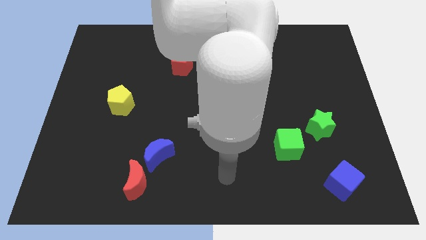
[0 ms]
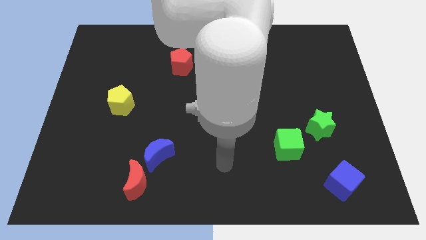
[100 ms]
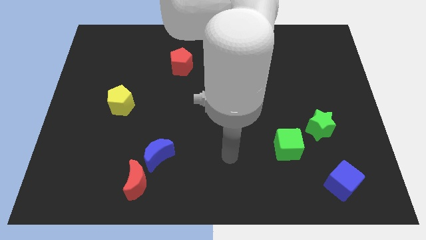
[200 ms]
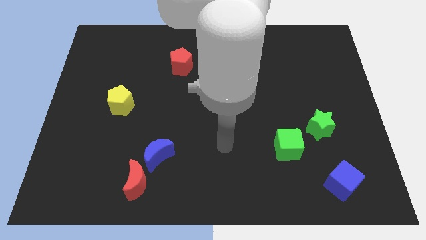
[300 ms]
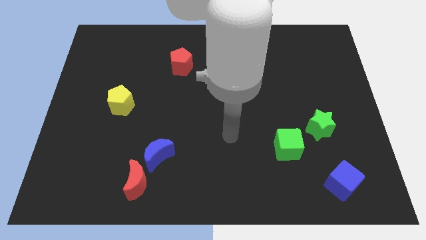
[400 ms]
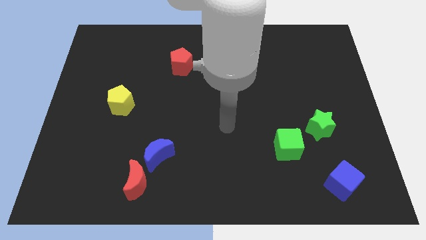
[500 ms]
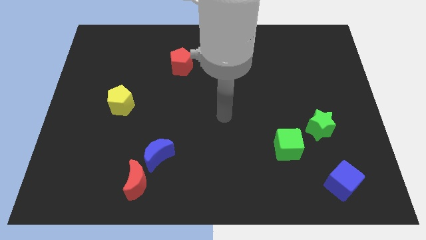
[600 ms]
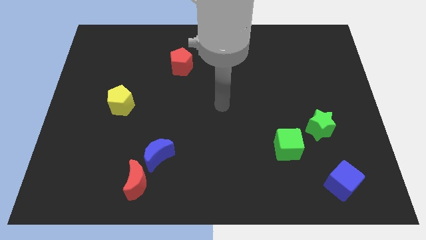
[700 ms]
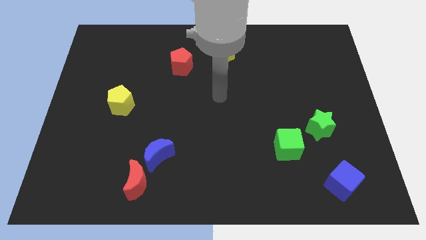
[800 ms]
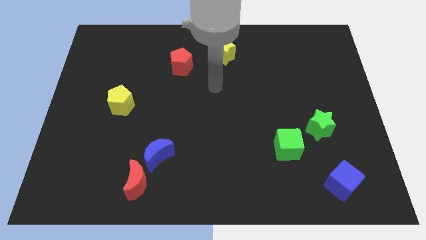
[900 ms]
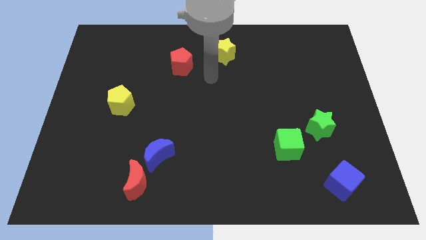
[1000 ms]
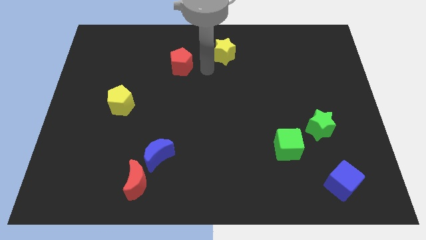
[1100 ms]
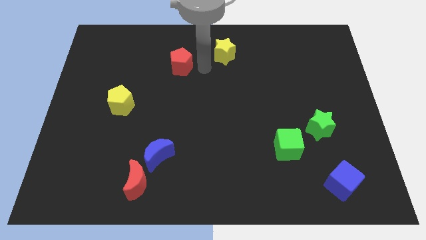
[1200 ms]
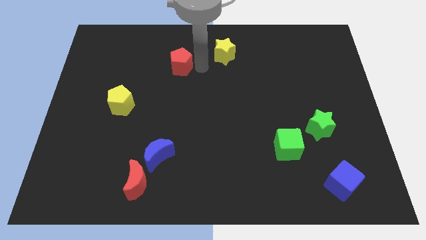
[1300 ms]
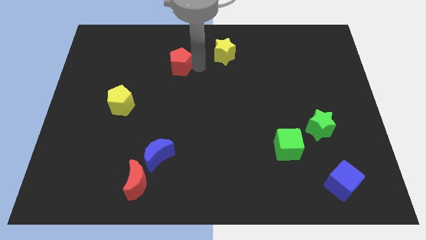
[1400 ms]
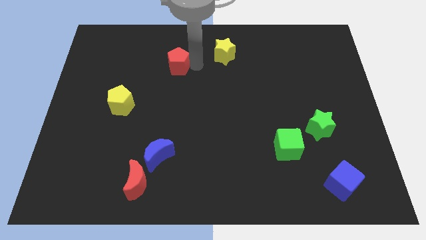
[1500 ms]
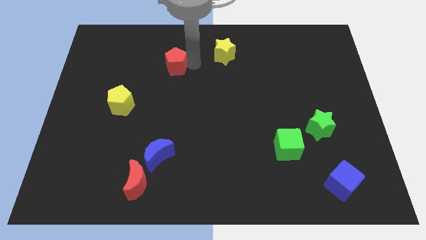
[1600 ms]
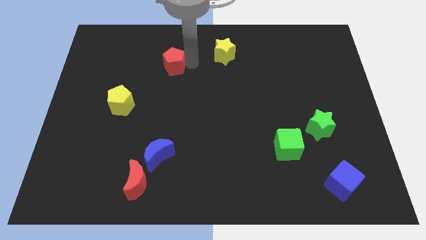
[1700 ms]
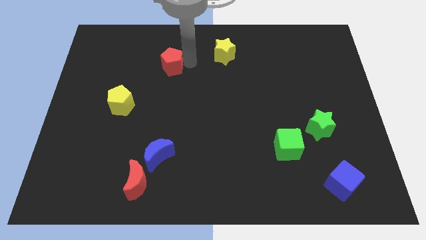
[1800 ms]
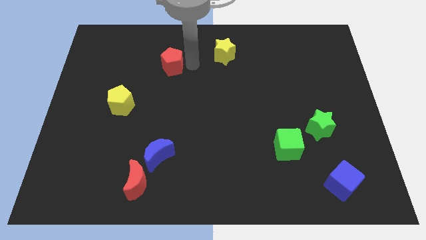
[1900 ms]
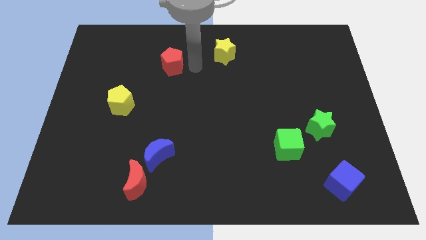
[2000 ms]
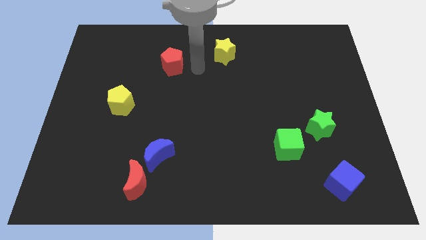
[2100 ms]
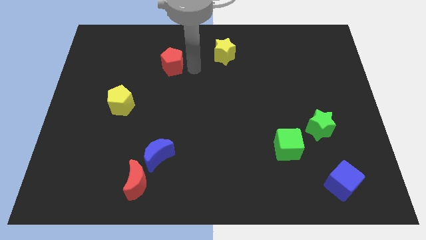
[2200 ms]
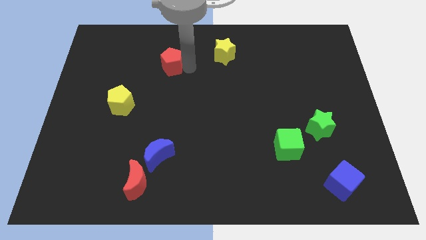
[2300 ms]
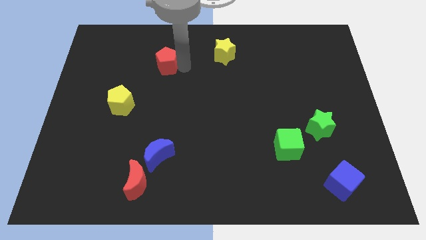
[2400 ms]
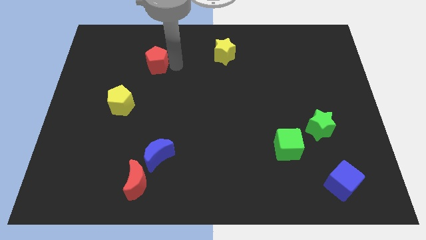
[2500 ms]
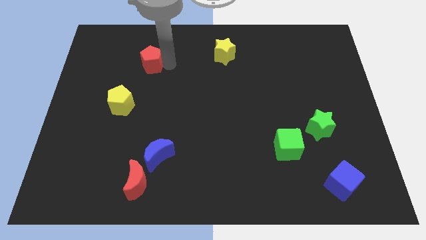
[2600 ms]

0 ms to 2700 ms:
push the red pentagon slightly to the left

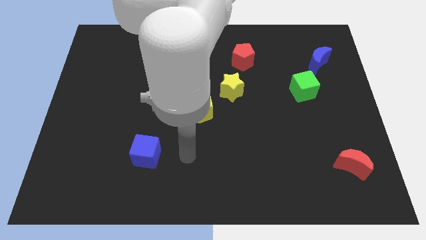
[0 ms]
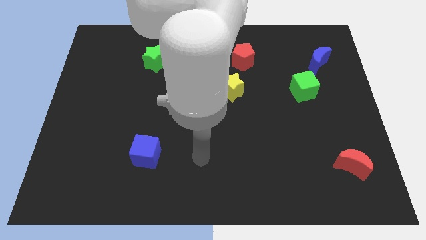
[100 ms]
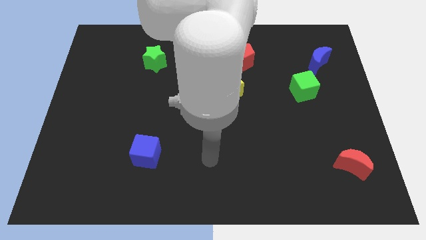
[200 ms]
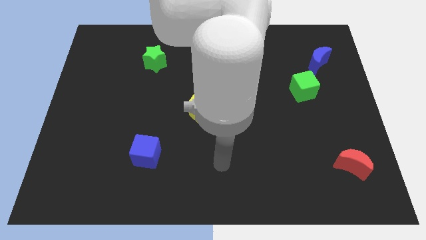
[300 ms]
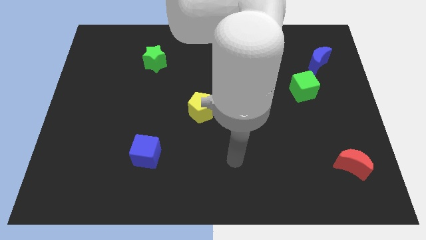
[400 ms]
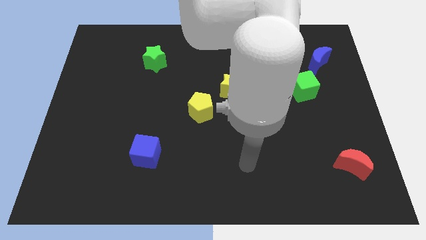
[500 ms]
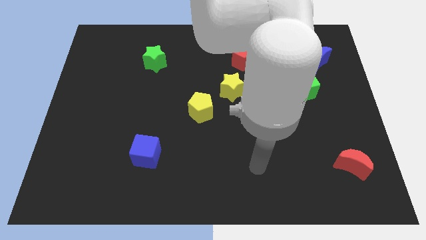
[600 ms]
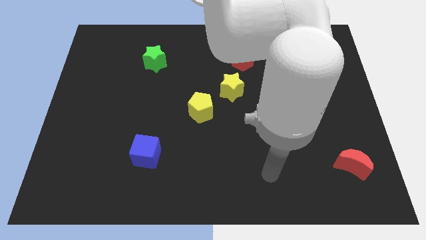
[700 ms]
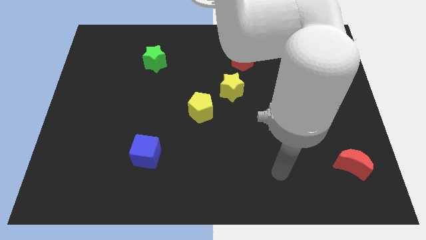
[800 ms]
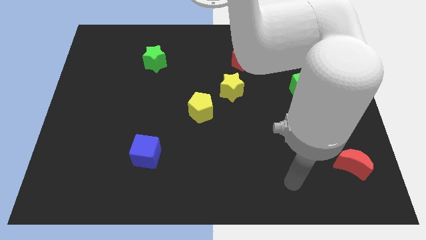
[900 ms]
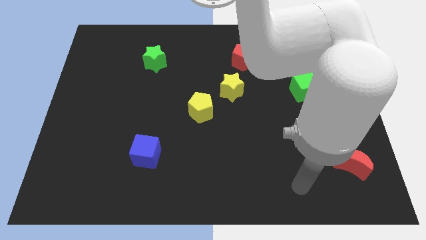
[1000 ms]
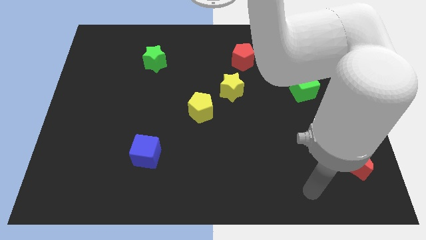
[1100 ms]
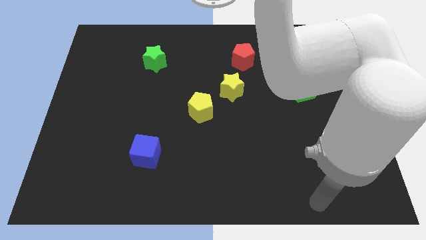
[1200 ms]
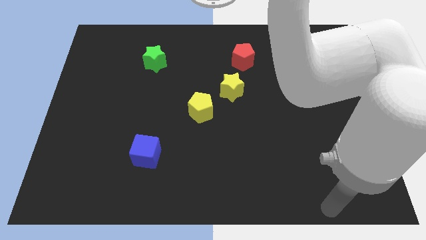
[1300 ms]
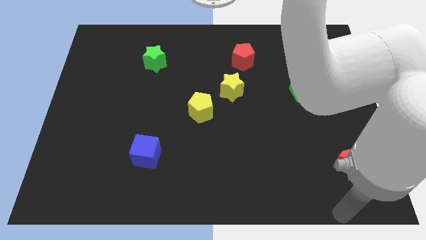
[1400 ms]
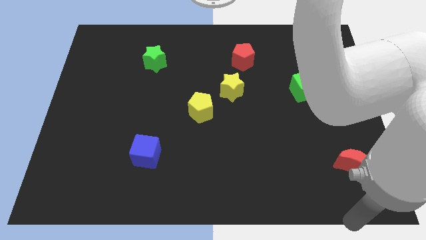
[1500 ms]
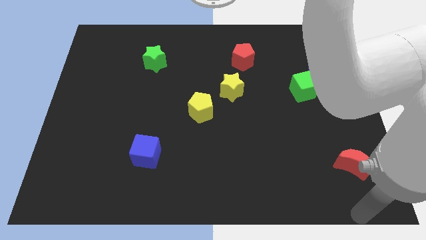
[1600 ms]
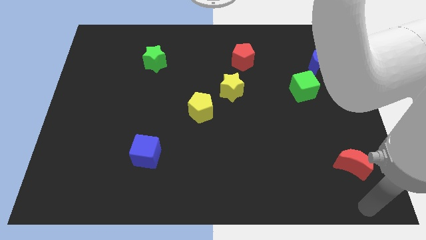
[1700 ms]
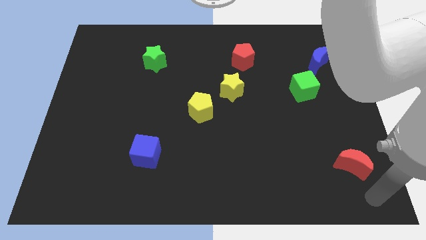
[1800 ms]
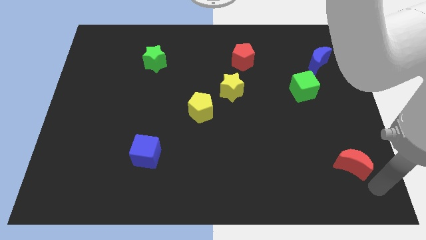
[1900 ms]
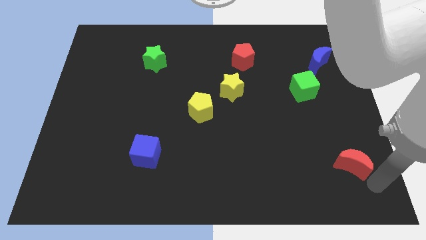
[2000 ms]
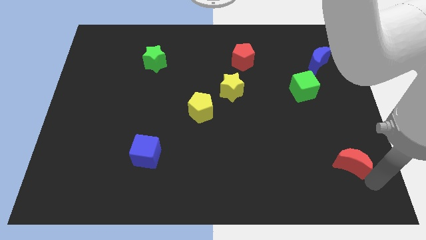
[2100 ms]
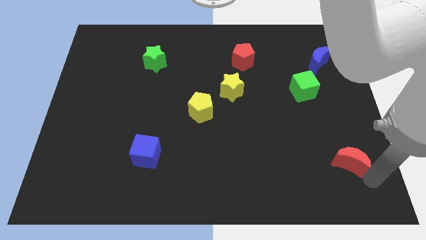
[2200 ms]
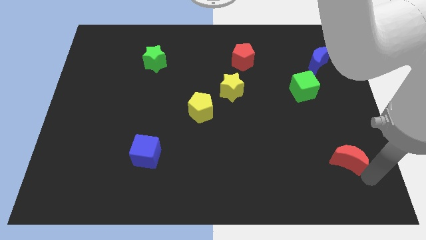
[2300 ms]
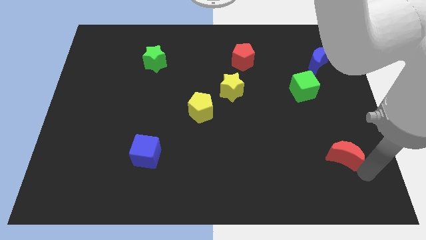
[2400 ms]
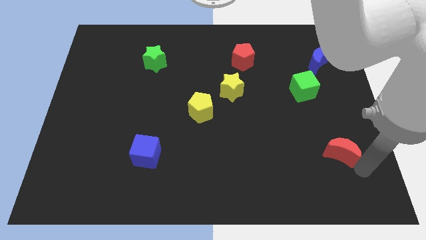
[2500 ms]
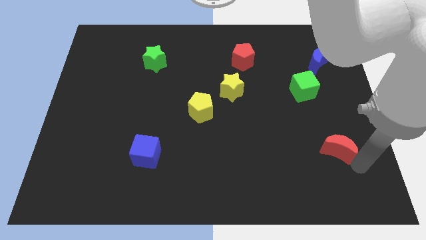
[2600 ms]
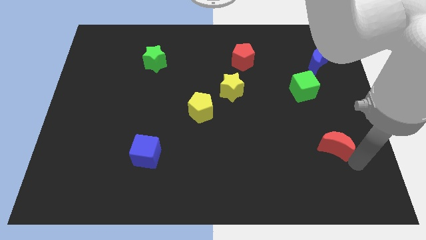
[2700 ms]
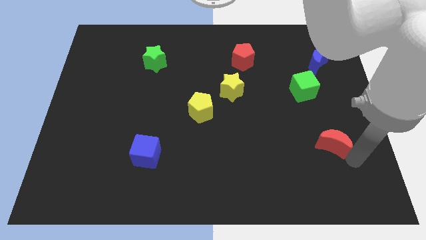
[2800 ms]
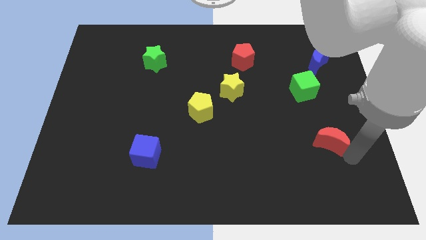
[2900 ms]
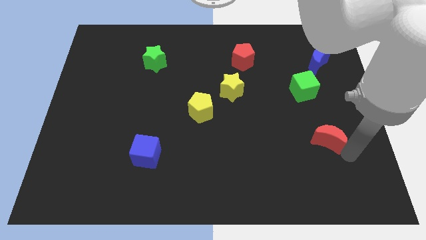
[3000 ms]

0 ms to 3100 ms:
slide the red moon upwards and to the left slightly

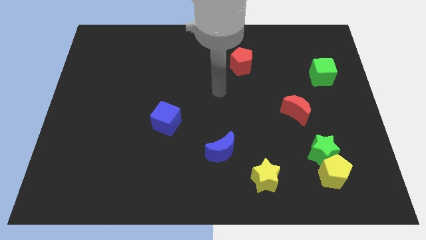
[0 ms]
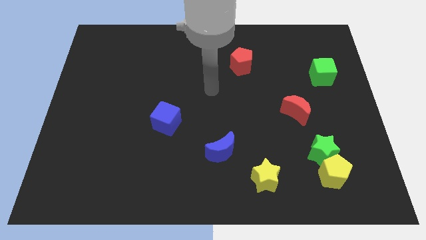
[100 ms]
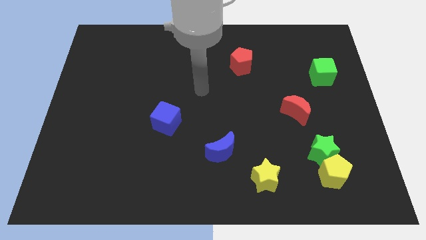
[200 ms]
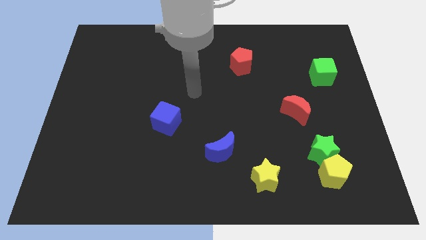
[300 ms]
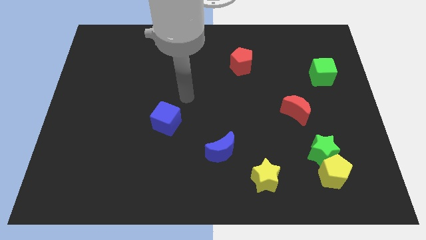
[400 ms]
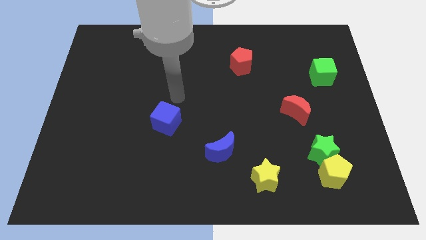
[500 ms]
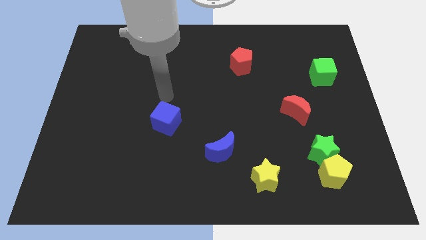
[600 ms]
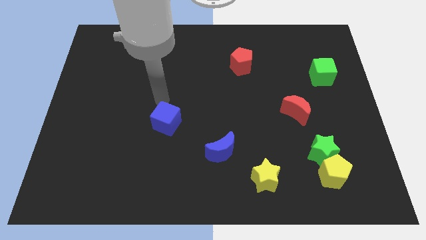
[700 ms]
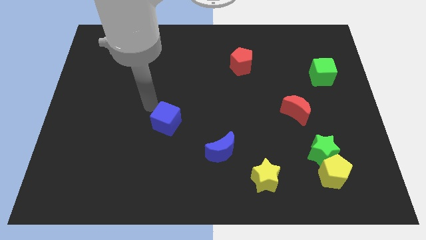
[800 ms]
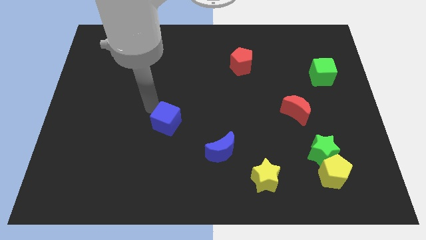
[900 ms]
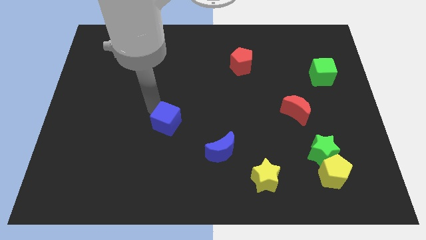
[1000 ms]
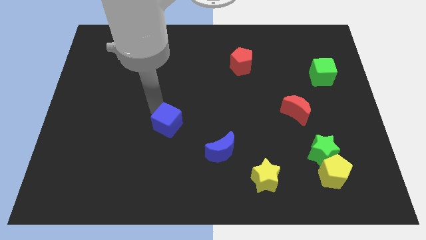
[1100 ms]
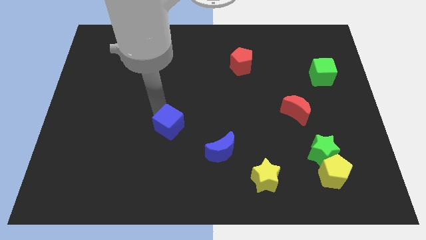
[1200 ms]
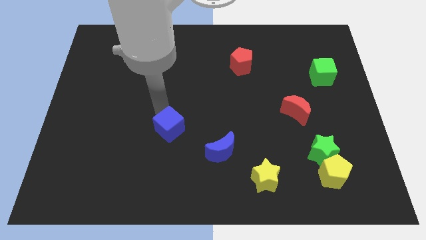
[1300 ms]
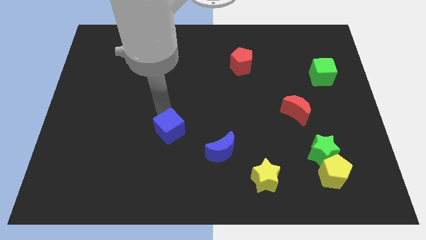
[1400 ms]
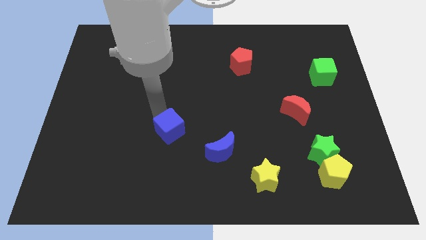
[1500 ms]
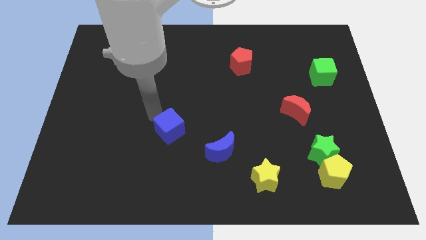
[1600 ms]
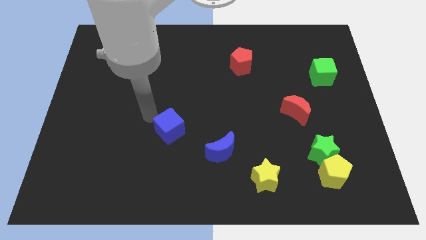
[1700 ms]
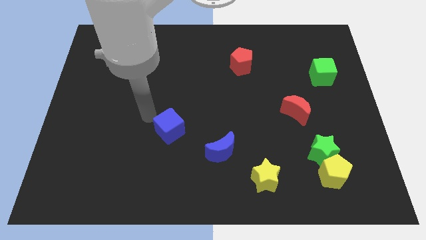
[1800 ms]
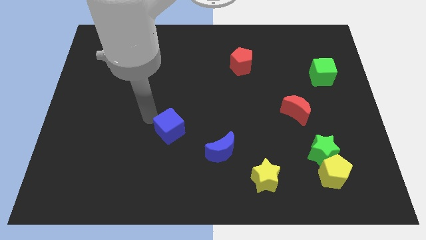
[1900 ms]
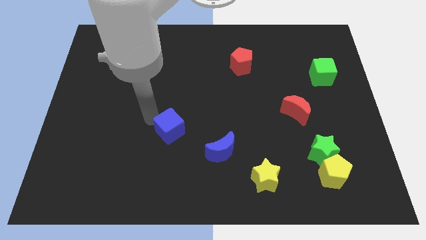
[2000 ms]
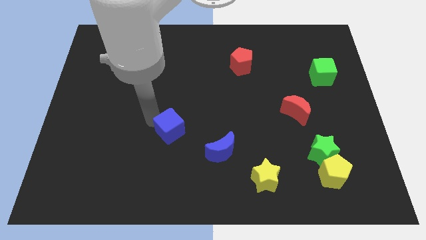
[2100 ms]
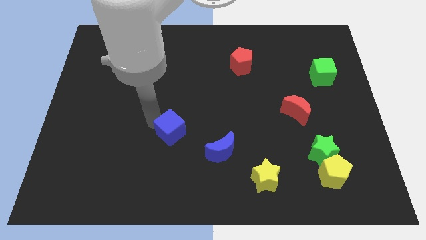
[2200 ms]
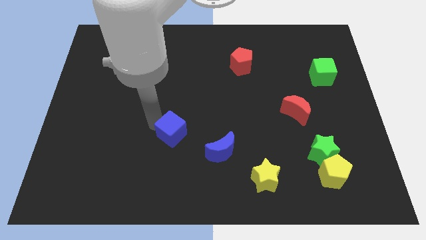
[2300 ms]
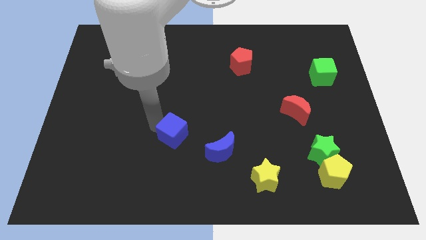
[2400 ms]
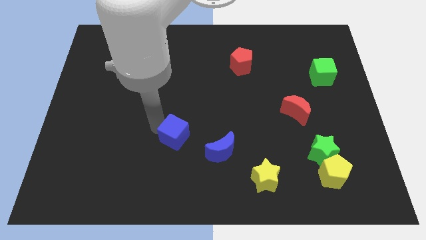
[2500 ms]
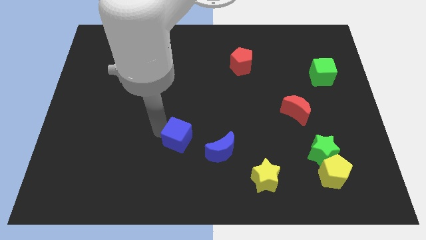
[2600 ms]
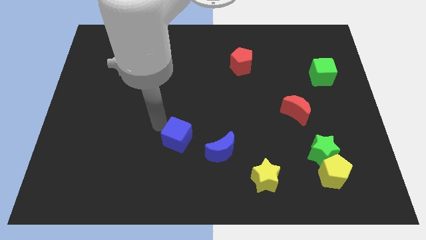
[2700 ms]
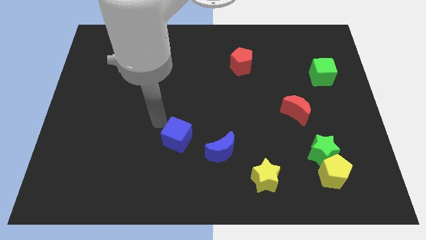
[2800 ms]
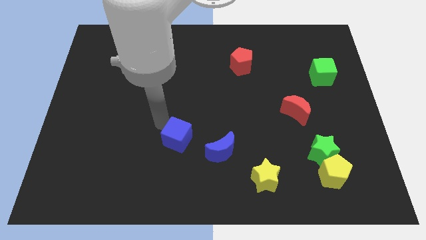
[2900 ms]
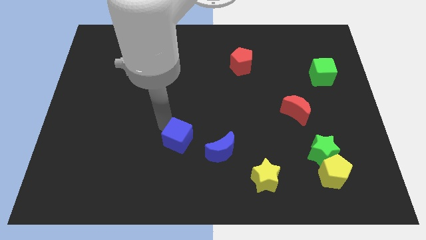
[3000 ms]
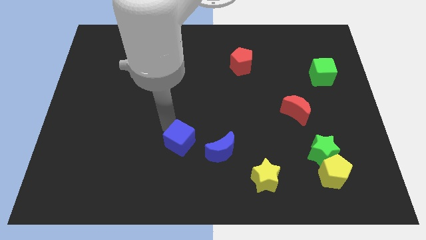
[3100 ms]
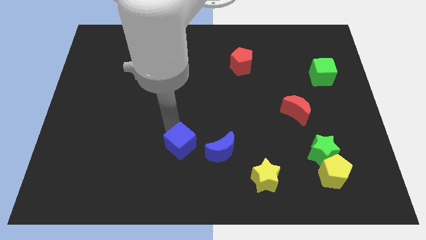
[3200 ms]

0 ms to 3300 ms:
move the blue cube down and then to the right a little
